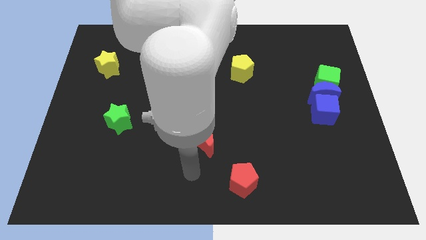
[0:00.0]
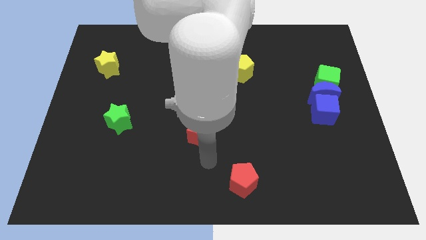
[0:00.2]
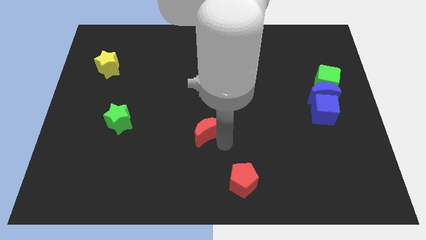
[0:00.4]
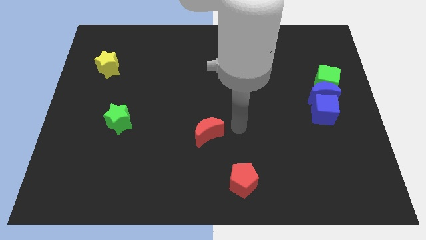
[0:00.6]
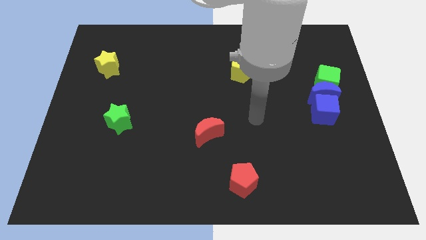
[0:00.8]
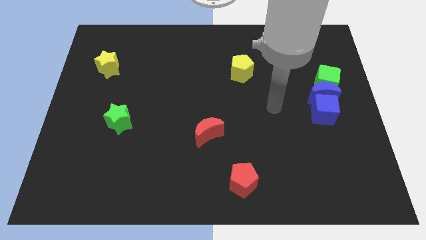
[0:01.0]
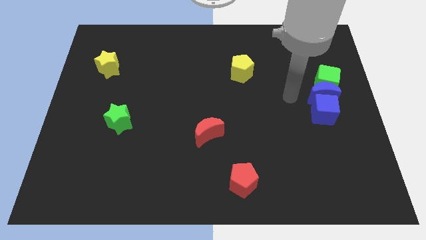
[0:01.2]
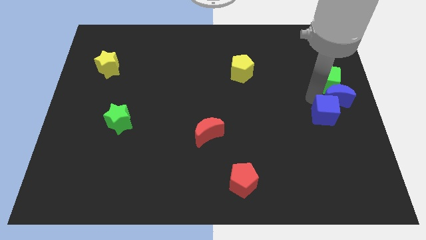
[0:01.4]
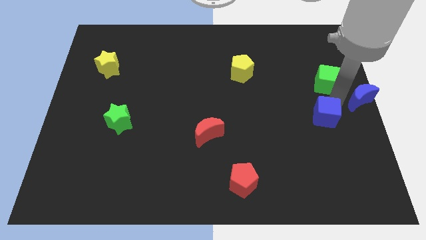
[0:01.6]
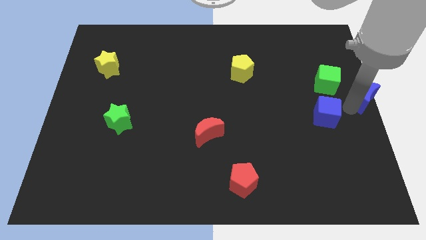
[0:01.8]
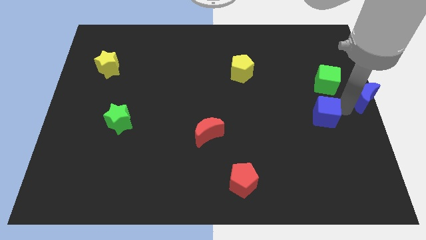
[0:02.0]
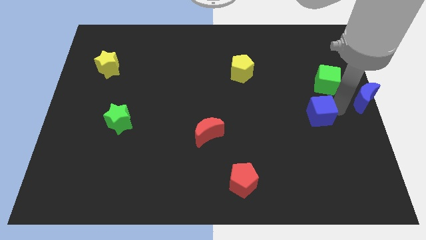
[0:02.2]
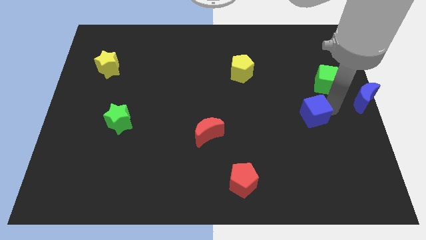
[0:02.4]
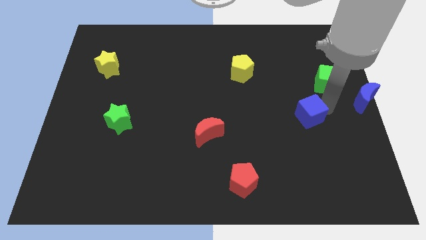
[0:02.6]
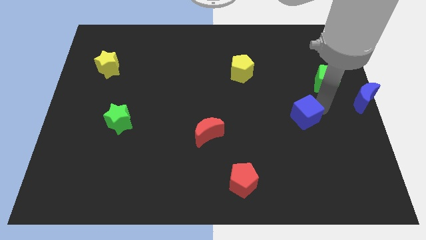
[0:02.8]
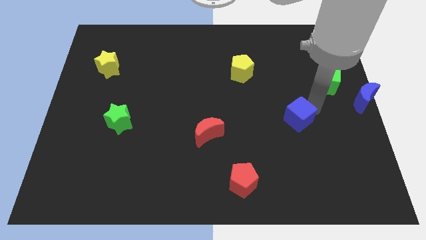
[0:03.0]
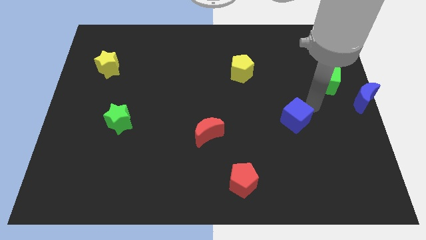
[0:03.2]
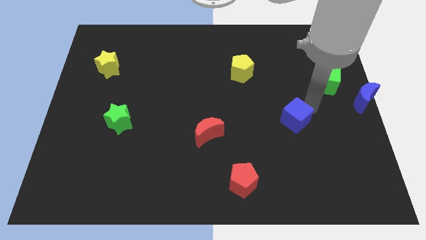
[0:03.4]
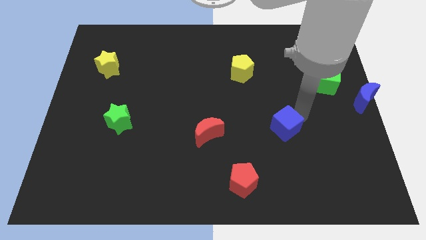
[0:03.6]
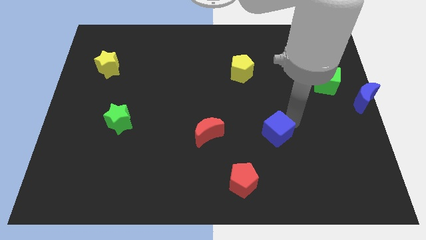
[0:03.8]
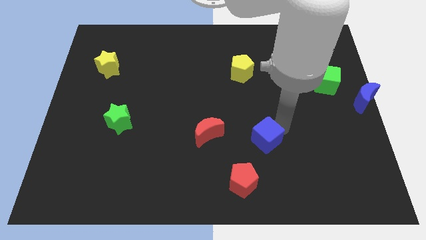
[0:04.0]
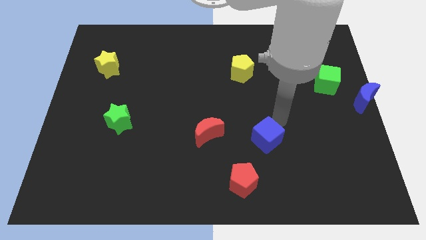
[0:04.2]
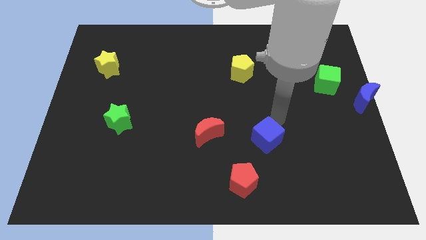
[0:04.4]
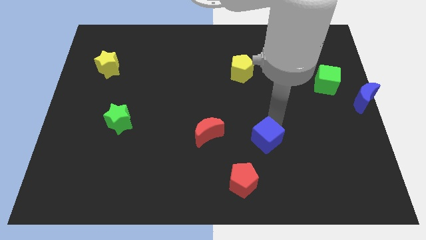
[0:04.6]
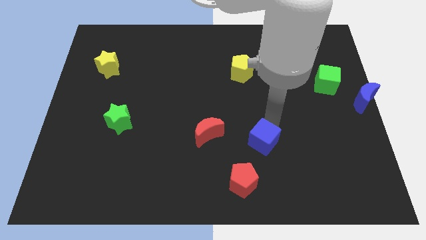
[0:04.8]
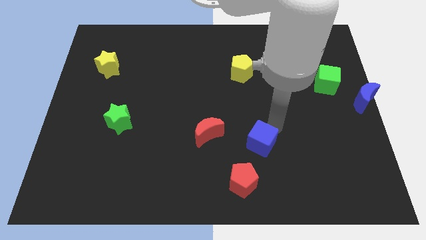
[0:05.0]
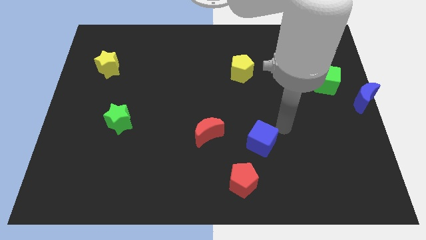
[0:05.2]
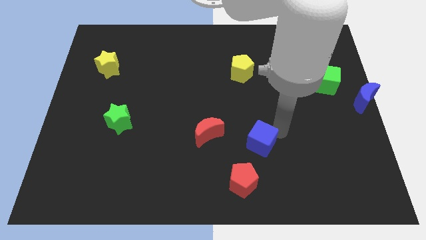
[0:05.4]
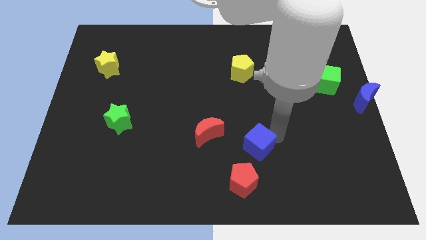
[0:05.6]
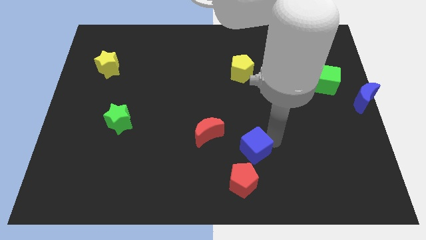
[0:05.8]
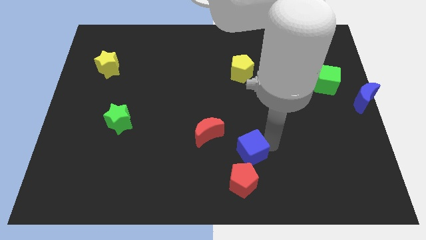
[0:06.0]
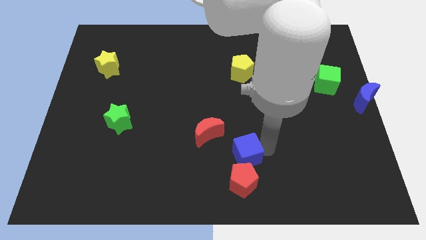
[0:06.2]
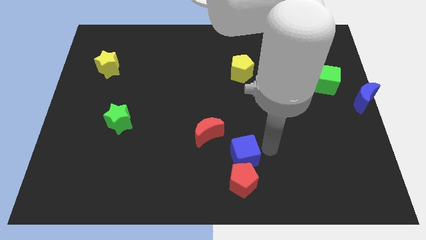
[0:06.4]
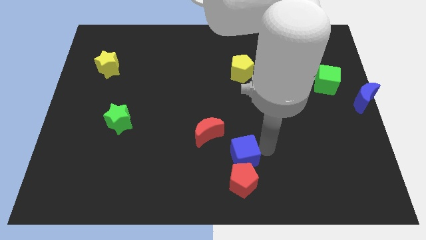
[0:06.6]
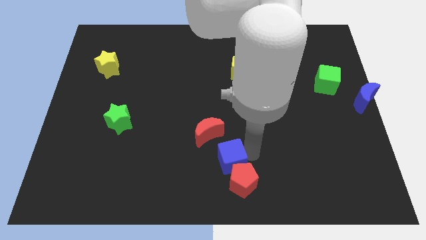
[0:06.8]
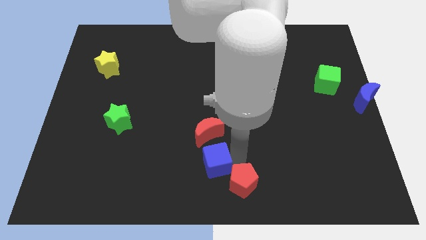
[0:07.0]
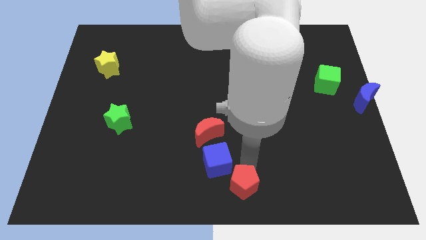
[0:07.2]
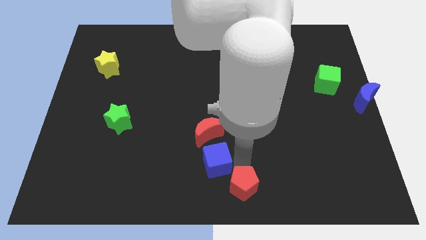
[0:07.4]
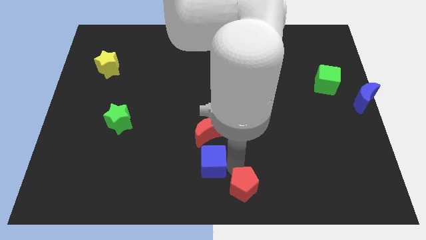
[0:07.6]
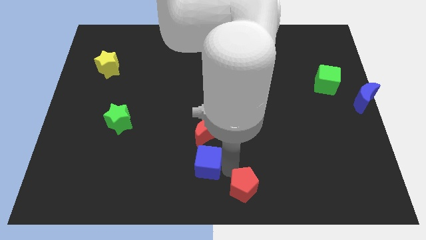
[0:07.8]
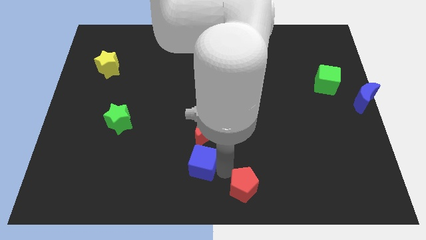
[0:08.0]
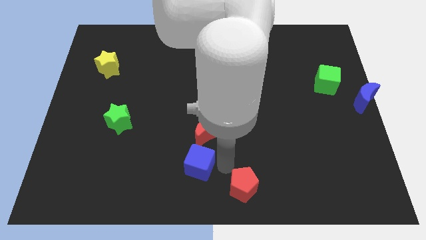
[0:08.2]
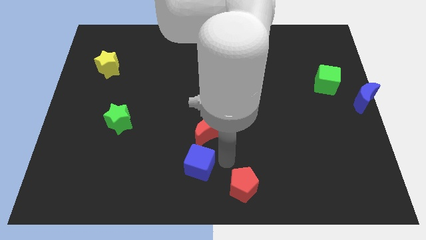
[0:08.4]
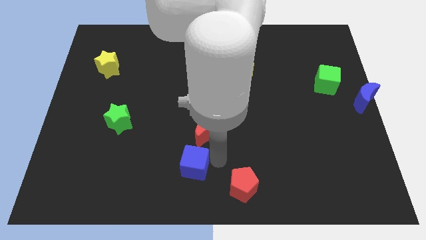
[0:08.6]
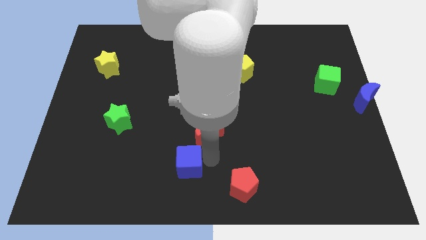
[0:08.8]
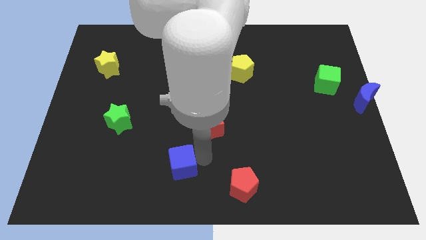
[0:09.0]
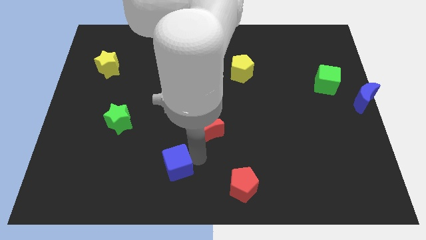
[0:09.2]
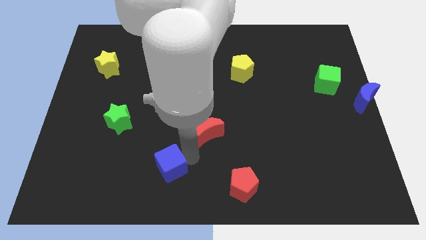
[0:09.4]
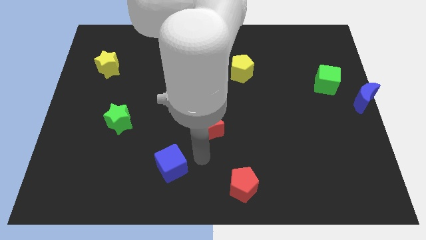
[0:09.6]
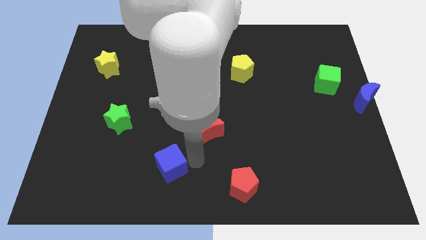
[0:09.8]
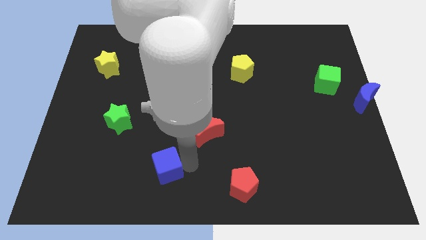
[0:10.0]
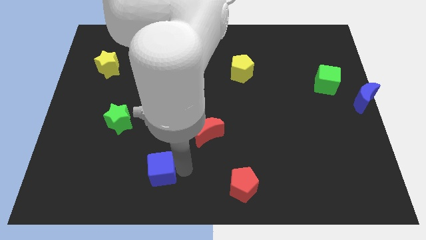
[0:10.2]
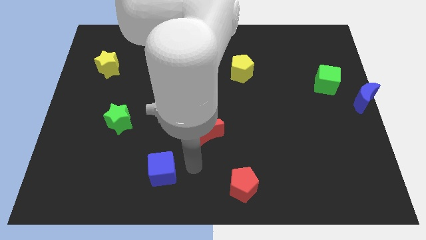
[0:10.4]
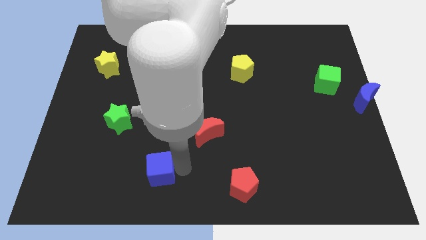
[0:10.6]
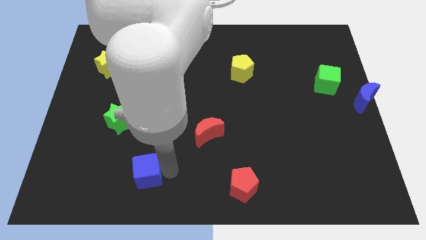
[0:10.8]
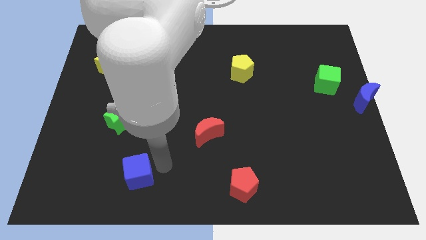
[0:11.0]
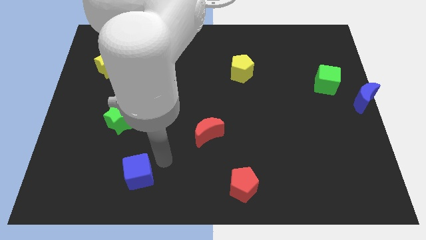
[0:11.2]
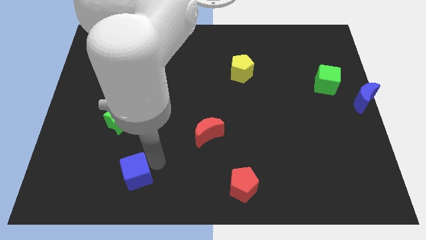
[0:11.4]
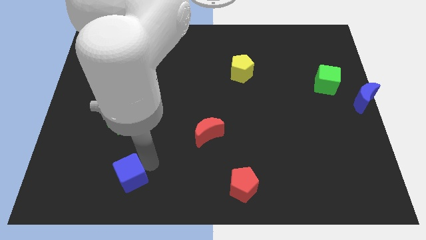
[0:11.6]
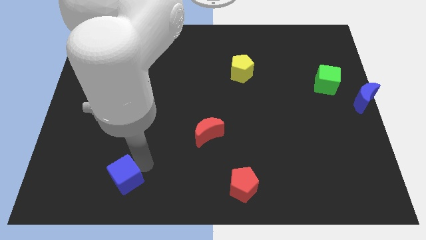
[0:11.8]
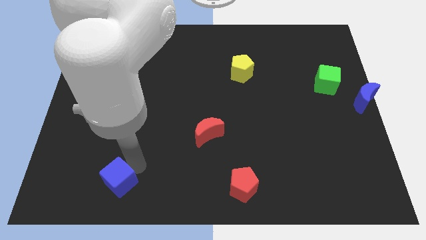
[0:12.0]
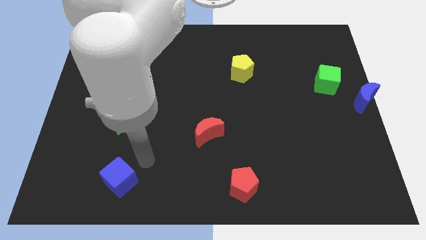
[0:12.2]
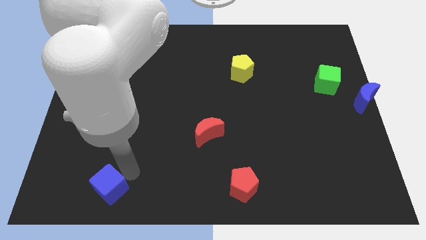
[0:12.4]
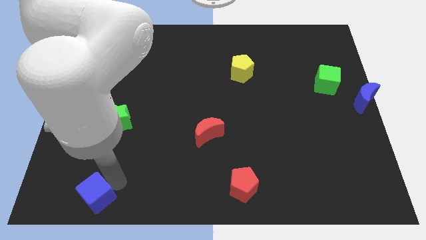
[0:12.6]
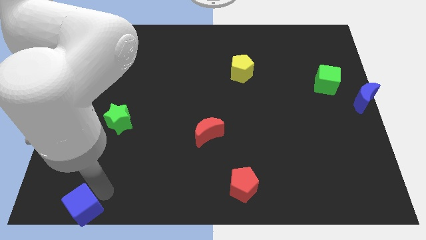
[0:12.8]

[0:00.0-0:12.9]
slide the blue cube to the bottom left
